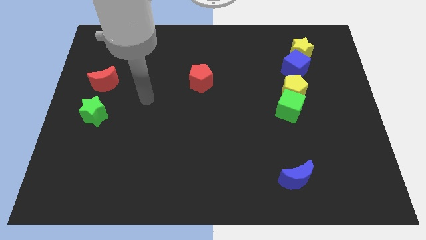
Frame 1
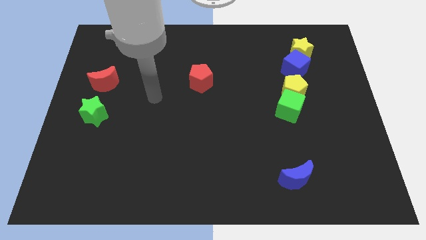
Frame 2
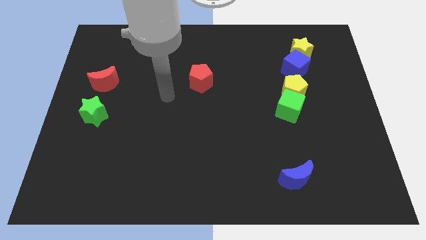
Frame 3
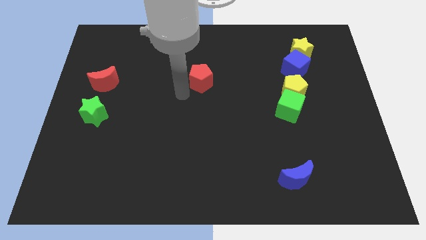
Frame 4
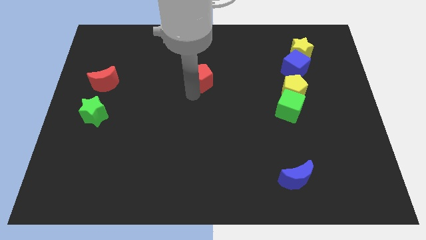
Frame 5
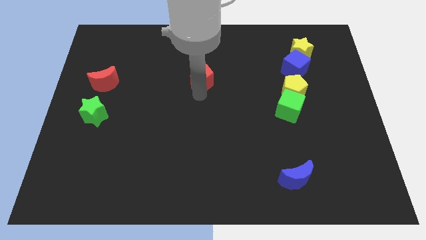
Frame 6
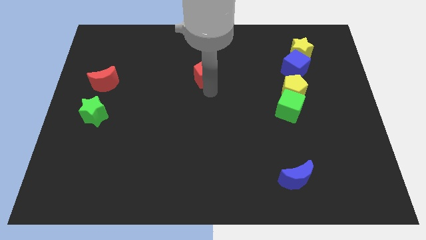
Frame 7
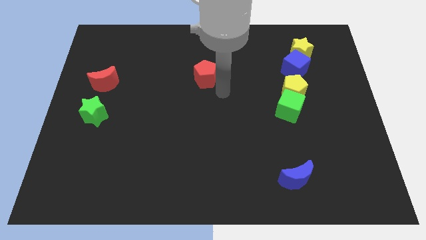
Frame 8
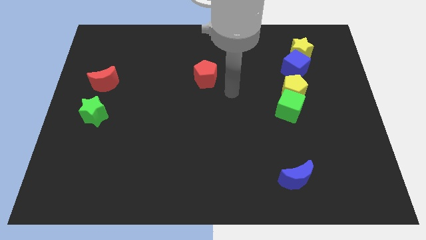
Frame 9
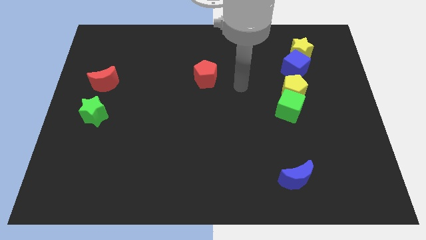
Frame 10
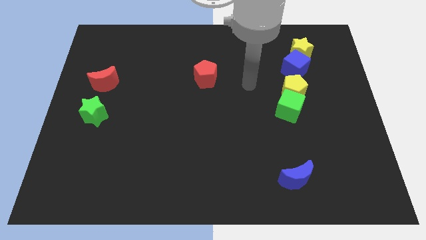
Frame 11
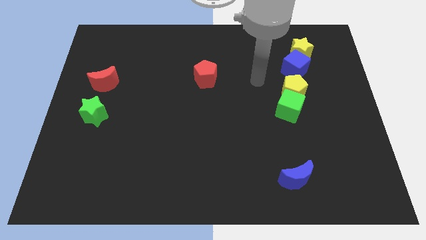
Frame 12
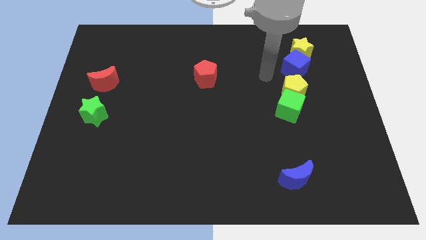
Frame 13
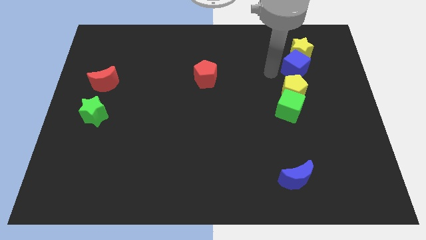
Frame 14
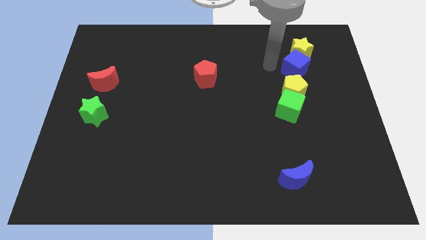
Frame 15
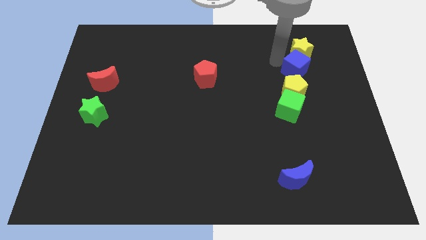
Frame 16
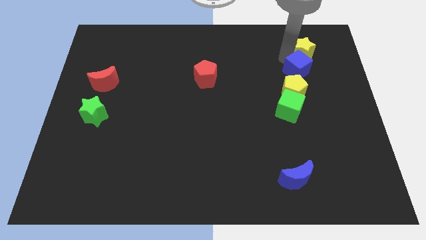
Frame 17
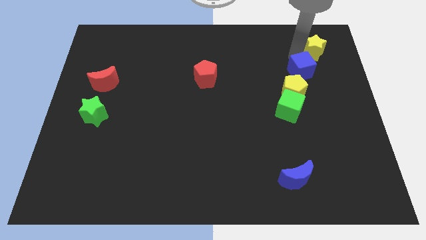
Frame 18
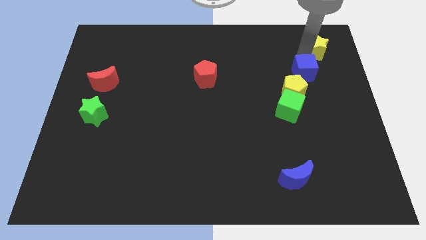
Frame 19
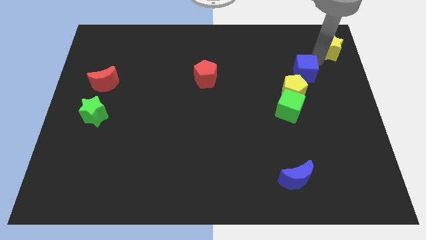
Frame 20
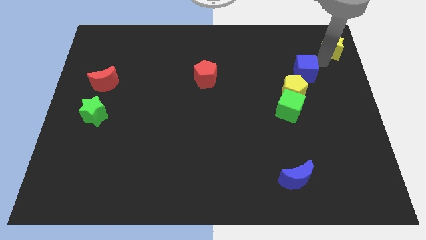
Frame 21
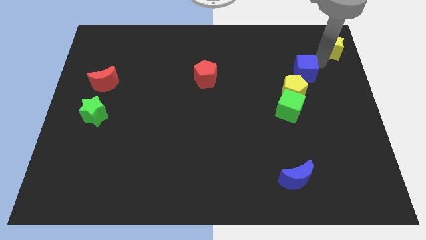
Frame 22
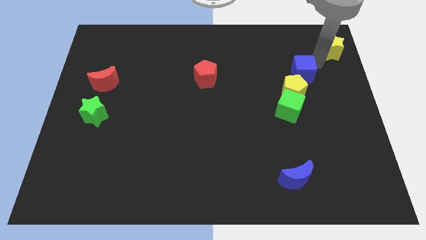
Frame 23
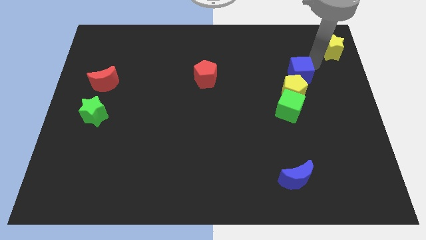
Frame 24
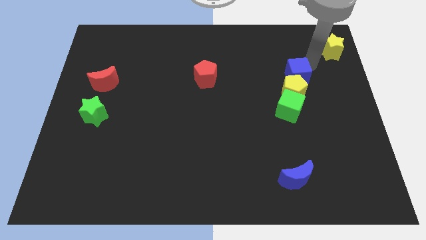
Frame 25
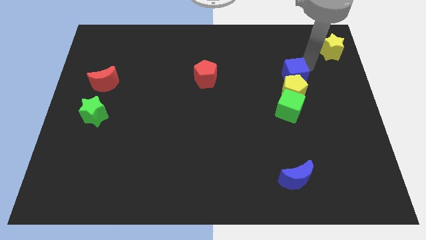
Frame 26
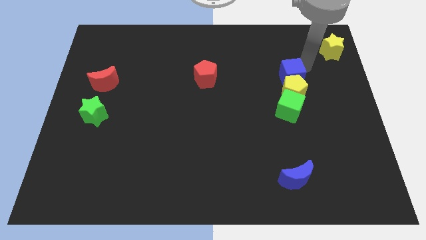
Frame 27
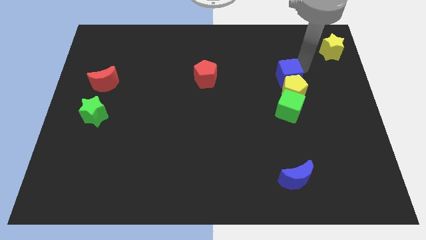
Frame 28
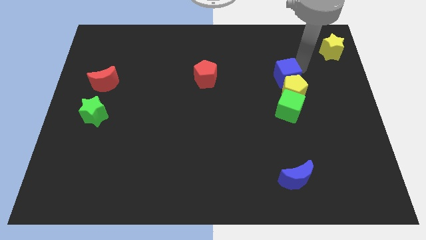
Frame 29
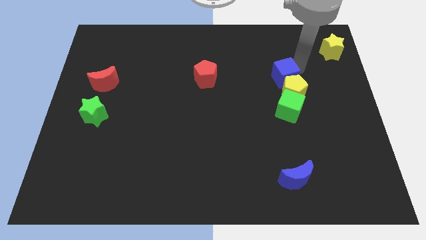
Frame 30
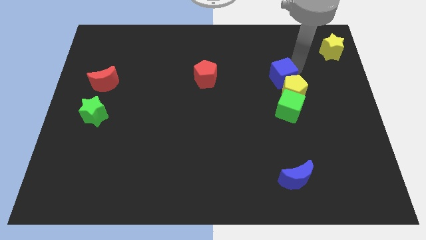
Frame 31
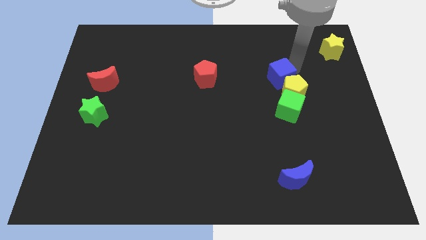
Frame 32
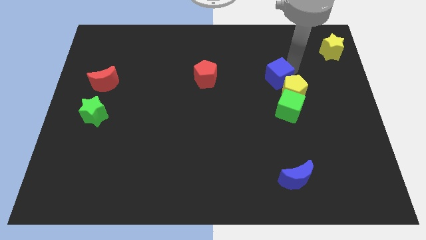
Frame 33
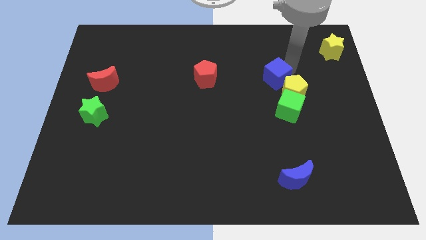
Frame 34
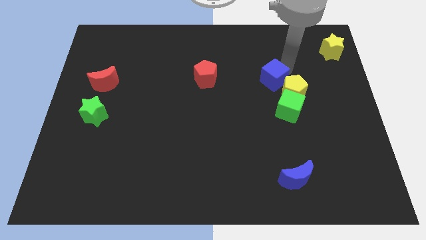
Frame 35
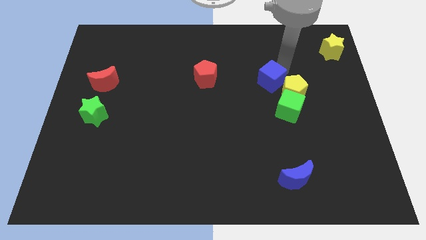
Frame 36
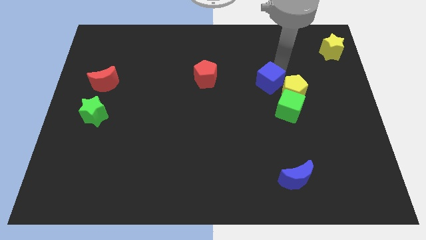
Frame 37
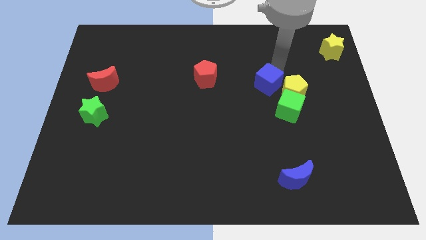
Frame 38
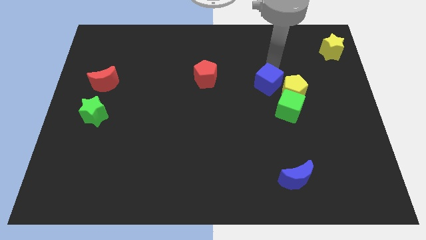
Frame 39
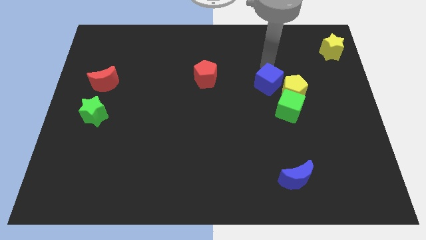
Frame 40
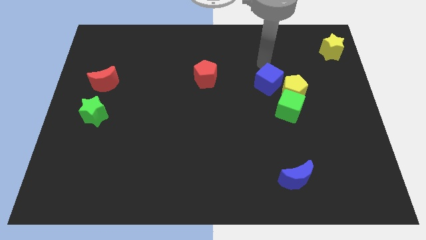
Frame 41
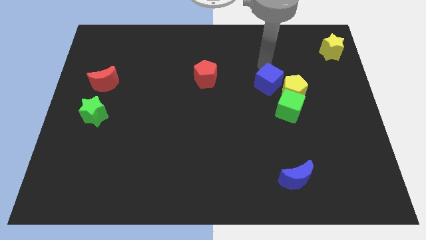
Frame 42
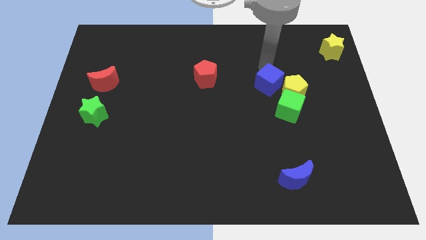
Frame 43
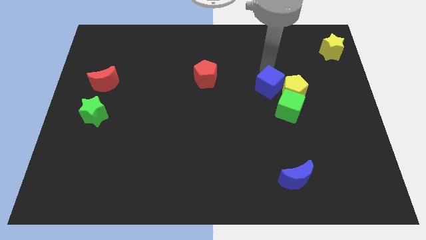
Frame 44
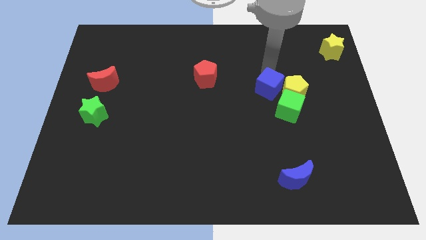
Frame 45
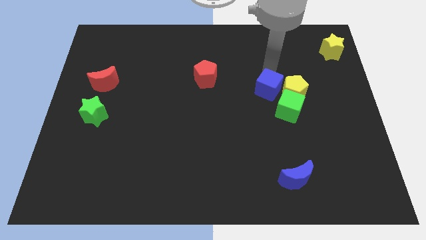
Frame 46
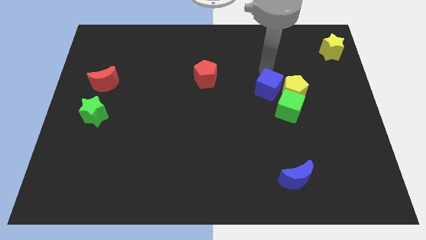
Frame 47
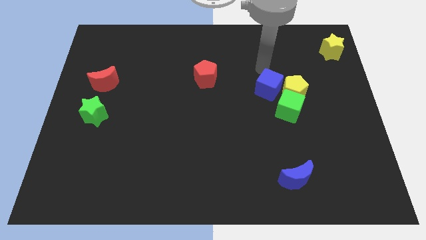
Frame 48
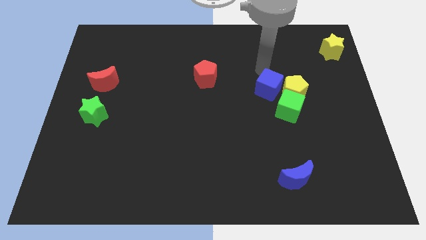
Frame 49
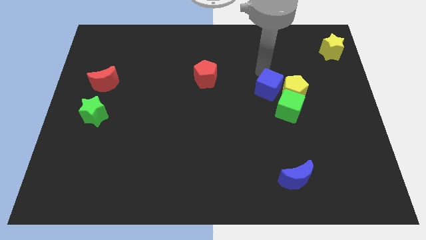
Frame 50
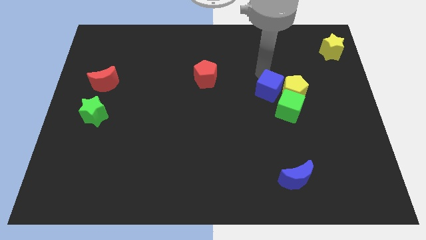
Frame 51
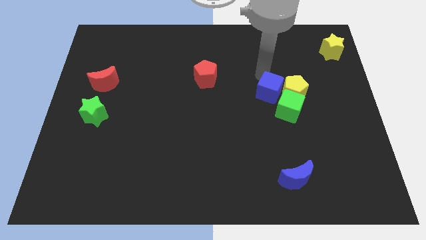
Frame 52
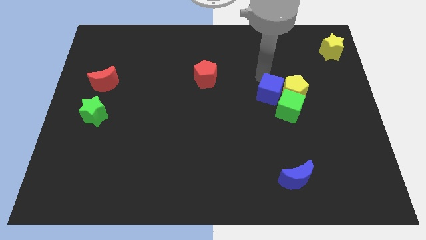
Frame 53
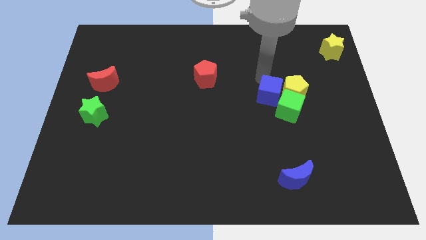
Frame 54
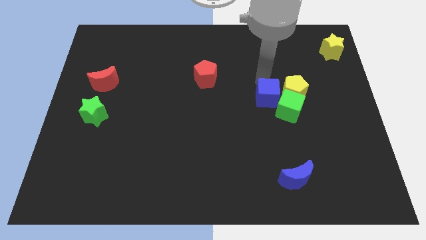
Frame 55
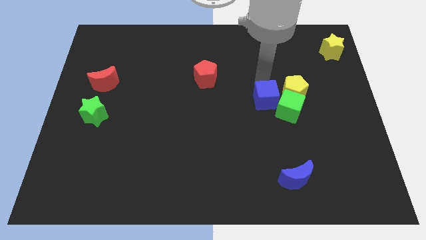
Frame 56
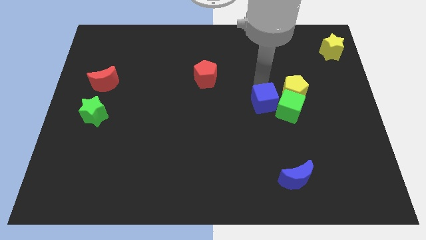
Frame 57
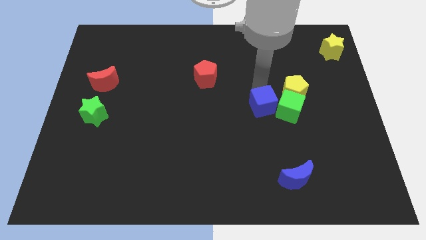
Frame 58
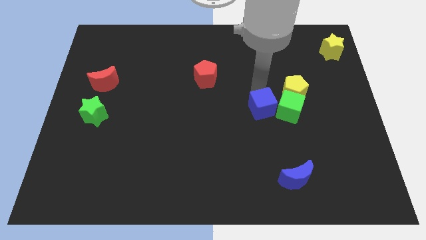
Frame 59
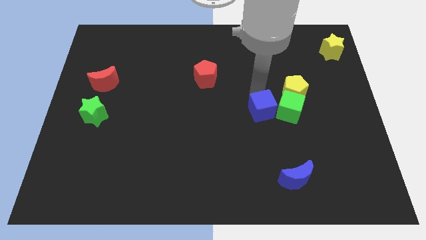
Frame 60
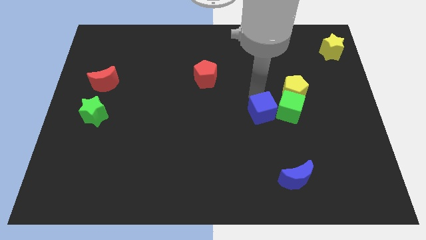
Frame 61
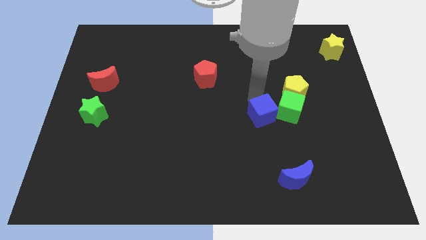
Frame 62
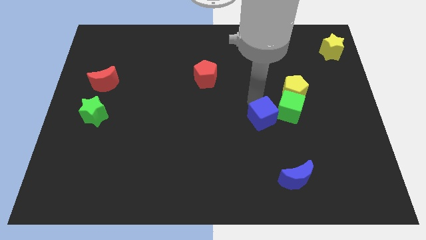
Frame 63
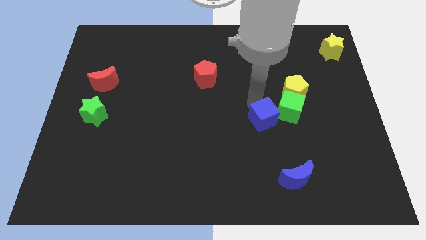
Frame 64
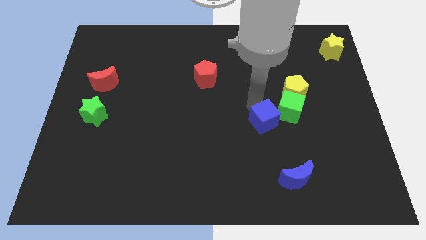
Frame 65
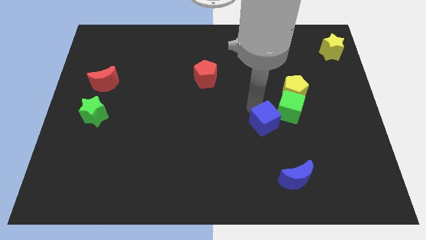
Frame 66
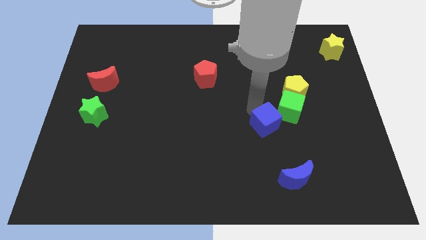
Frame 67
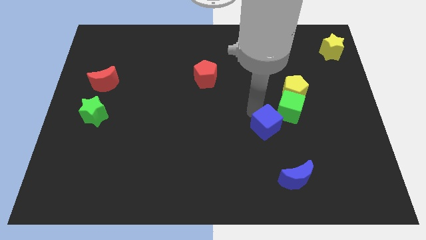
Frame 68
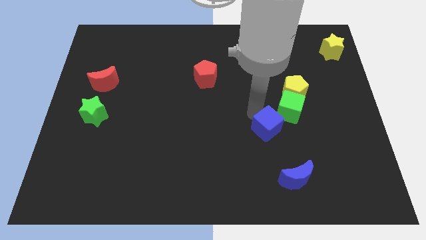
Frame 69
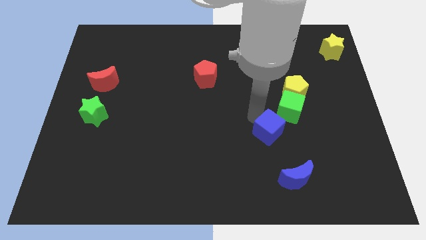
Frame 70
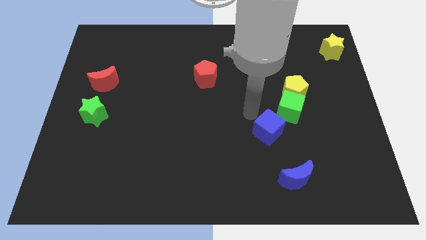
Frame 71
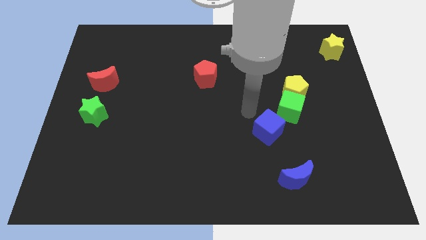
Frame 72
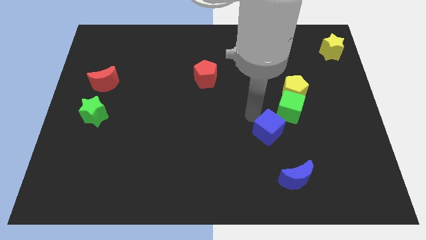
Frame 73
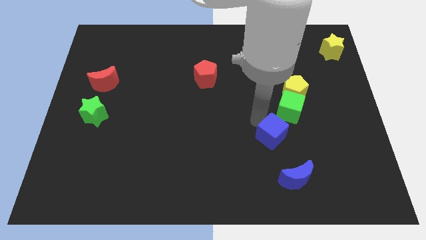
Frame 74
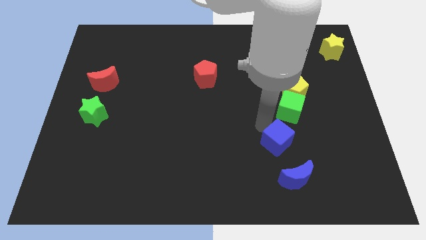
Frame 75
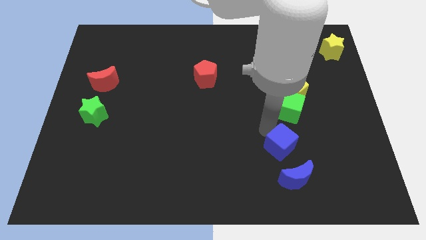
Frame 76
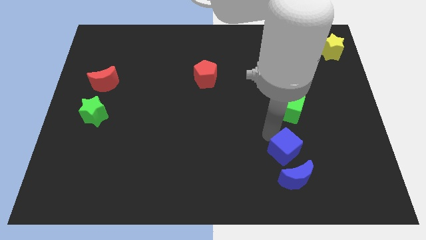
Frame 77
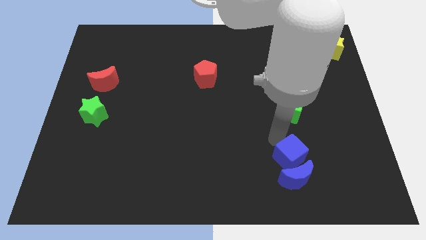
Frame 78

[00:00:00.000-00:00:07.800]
put the blue cube towards the blue moon

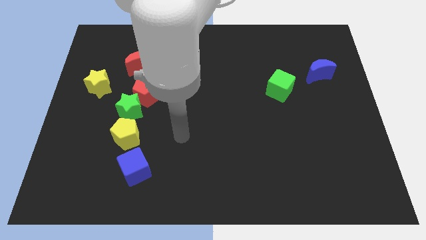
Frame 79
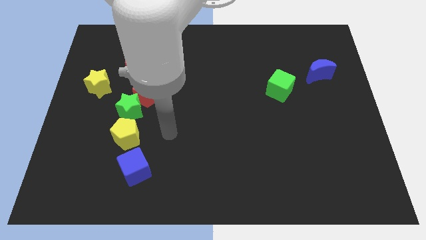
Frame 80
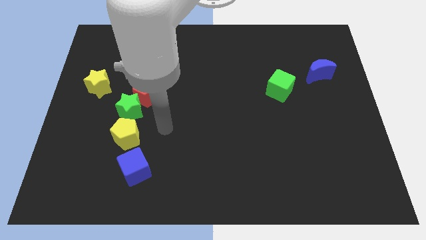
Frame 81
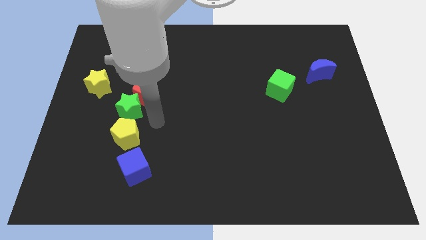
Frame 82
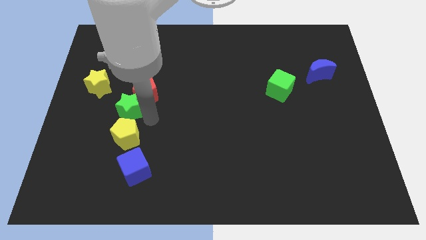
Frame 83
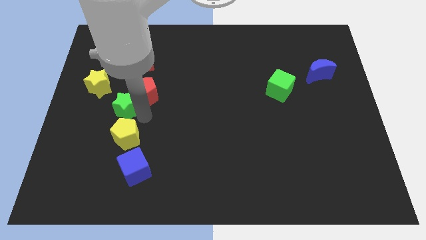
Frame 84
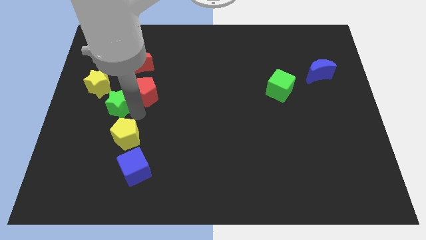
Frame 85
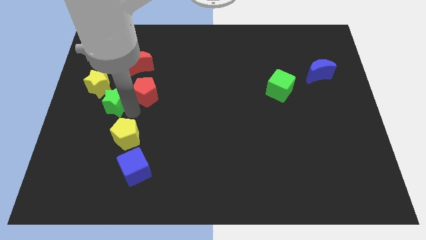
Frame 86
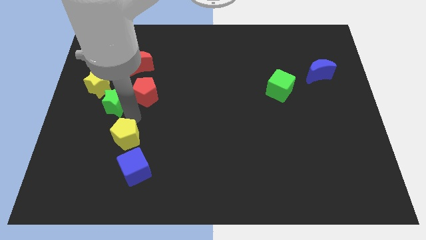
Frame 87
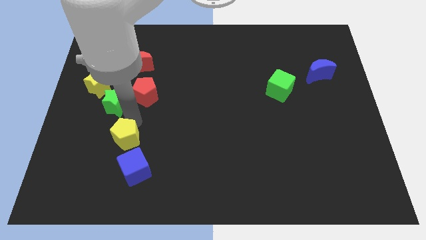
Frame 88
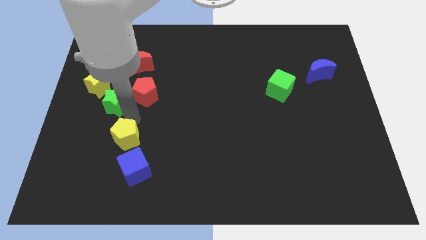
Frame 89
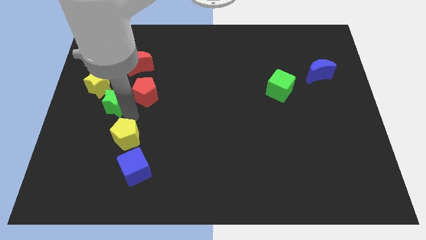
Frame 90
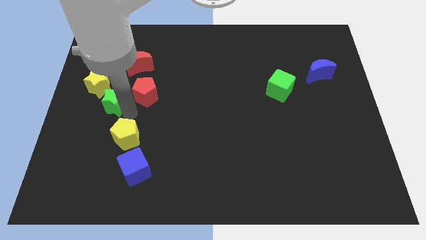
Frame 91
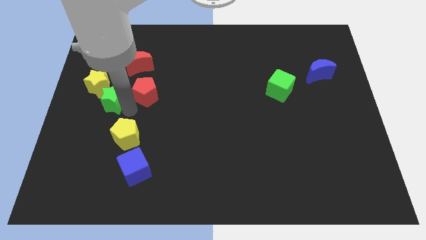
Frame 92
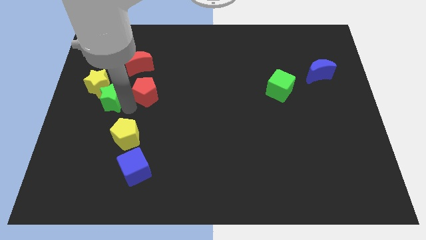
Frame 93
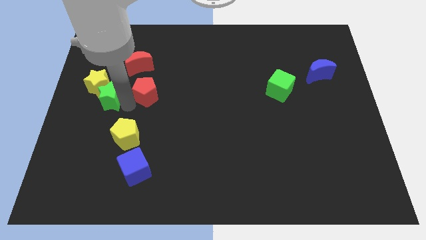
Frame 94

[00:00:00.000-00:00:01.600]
slide the green star to the yellow star
